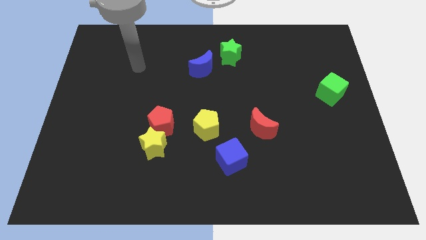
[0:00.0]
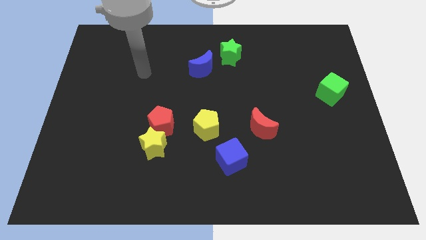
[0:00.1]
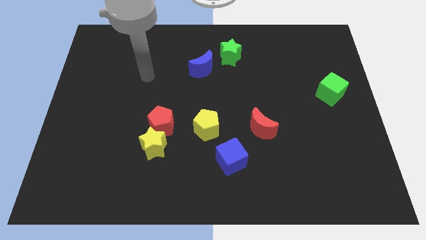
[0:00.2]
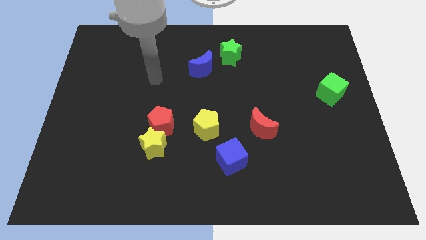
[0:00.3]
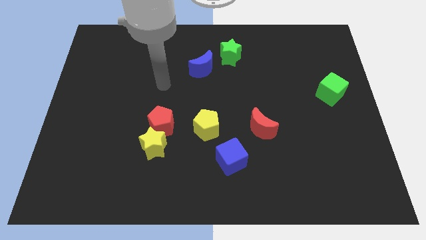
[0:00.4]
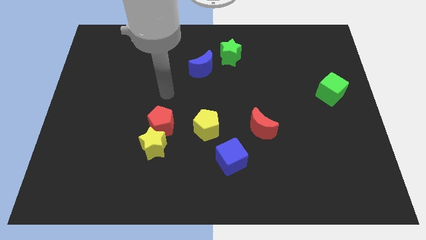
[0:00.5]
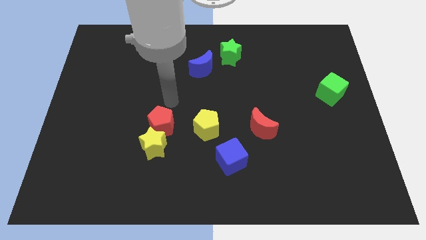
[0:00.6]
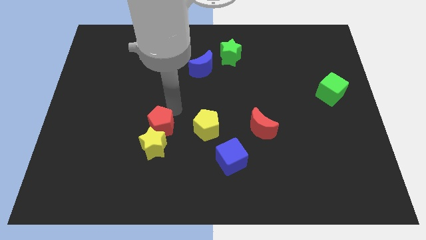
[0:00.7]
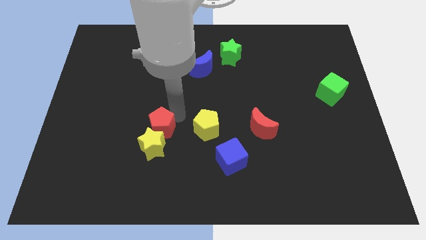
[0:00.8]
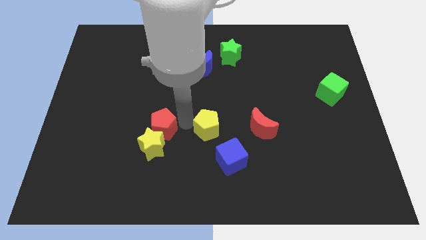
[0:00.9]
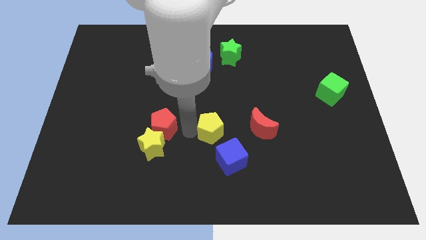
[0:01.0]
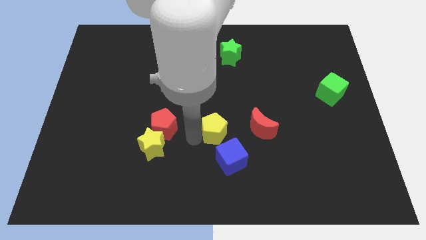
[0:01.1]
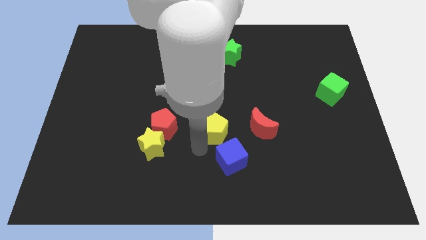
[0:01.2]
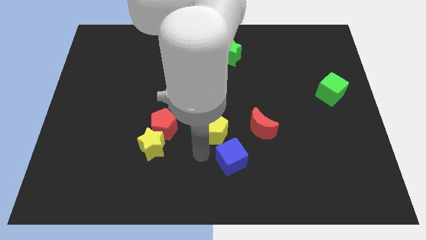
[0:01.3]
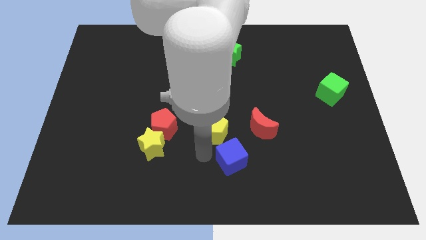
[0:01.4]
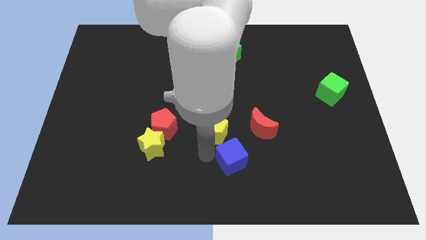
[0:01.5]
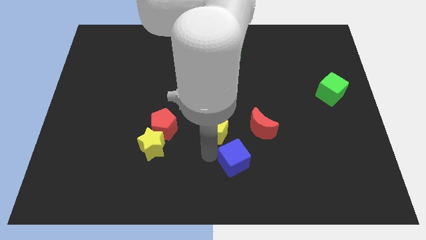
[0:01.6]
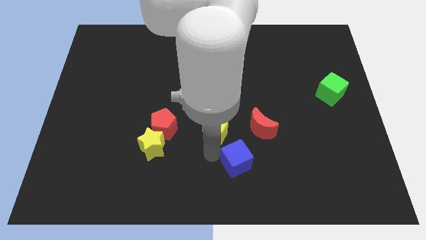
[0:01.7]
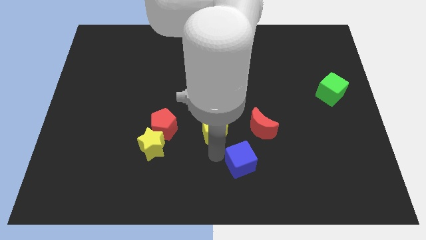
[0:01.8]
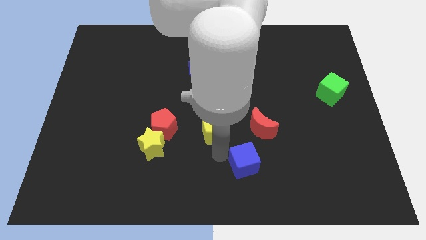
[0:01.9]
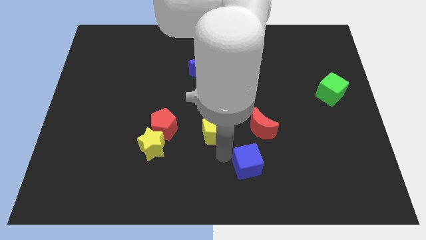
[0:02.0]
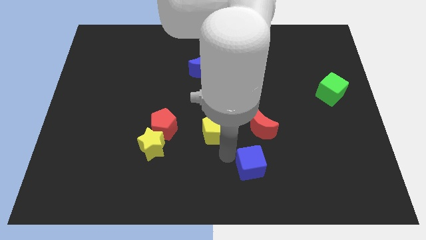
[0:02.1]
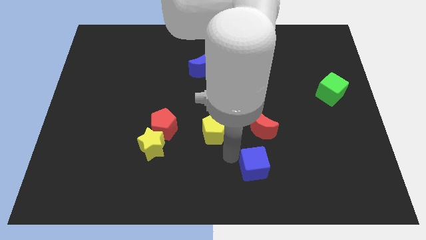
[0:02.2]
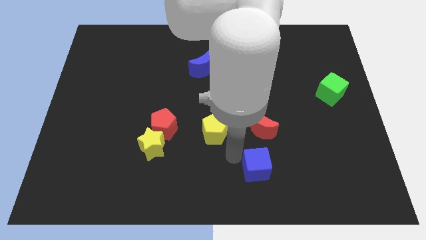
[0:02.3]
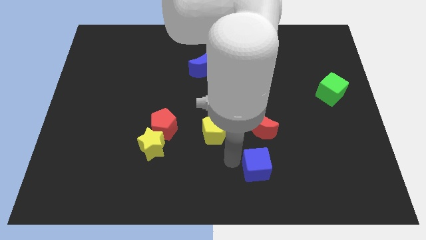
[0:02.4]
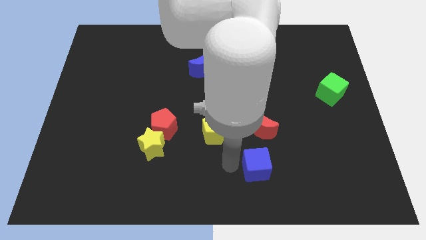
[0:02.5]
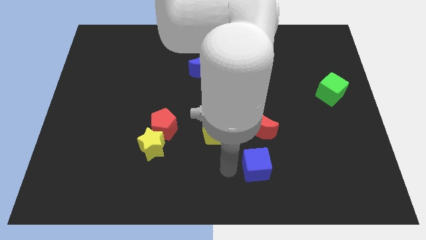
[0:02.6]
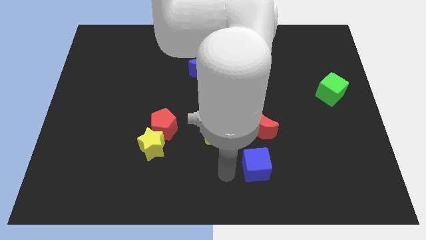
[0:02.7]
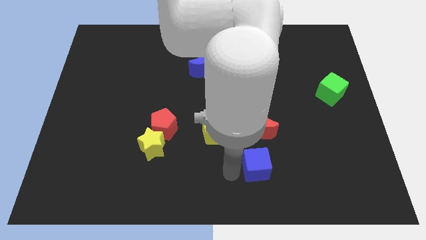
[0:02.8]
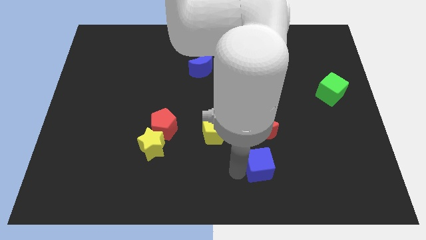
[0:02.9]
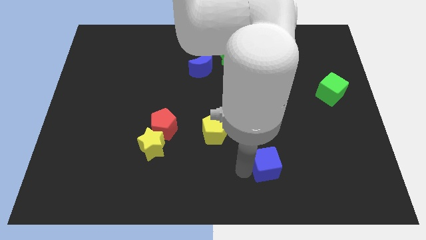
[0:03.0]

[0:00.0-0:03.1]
slightly move the blue cube right

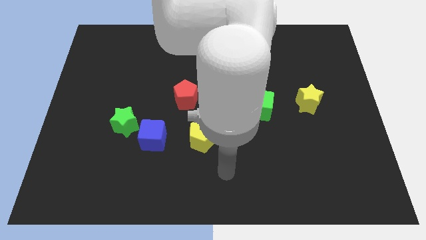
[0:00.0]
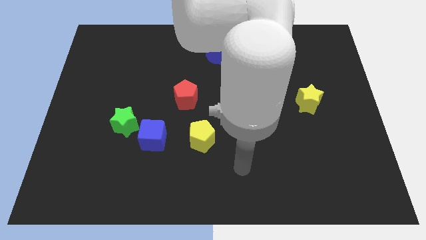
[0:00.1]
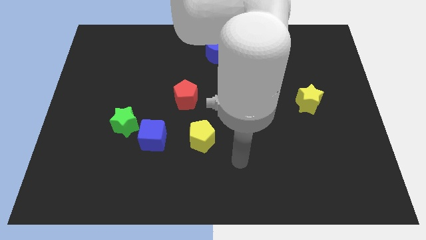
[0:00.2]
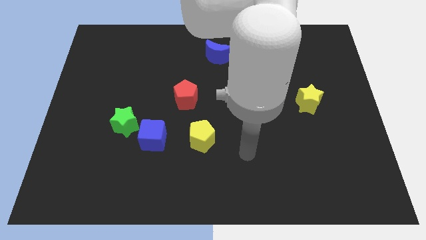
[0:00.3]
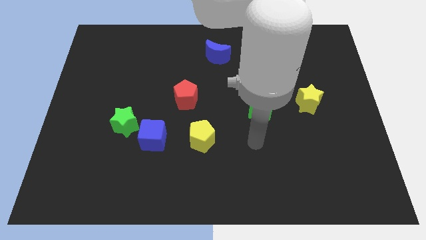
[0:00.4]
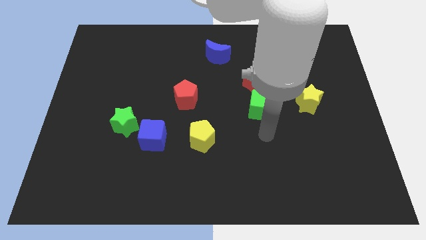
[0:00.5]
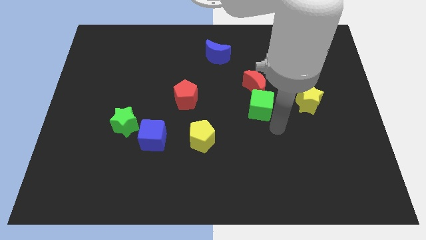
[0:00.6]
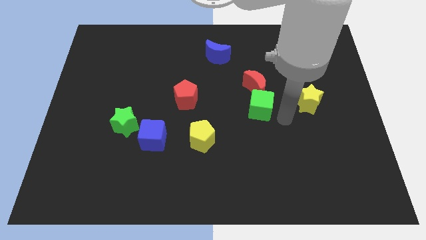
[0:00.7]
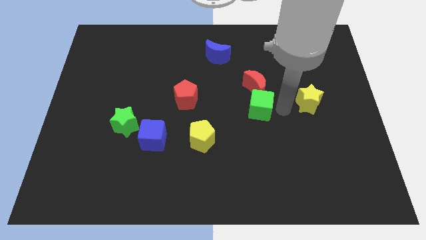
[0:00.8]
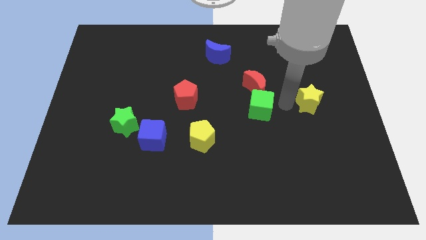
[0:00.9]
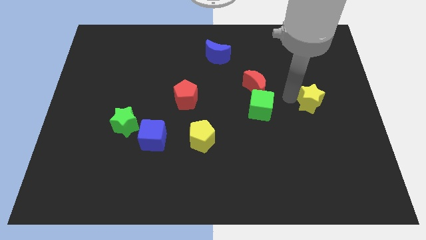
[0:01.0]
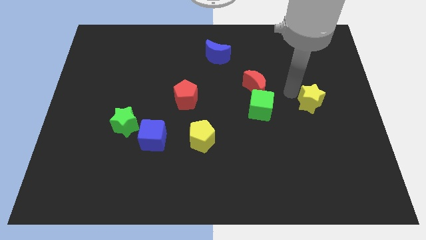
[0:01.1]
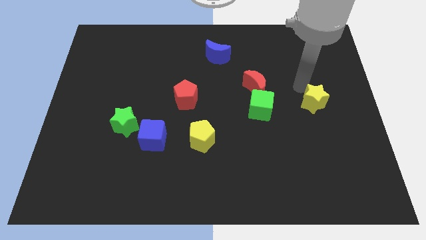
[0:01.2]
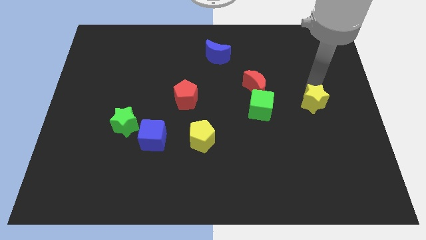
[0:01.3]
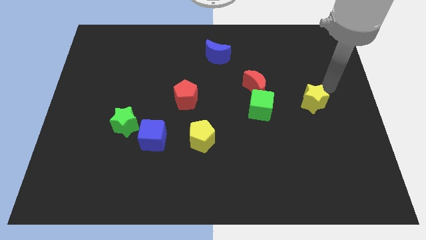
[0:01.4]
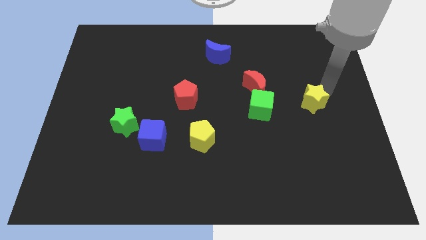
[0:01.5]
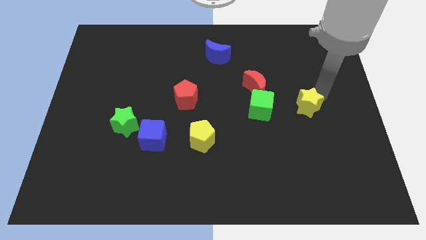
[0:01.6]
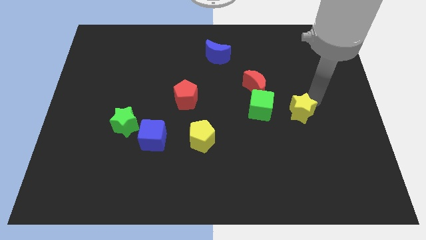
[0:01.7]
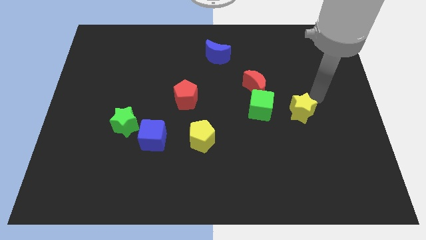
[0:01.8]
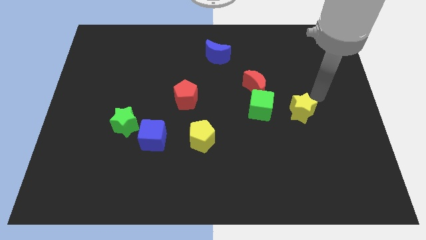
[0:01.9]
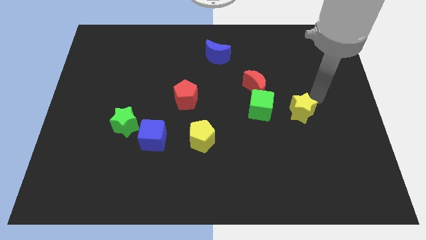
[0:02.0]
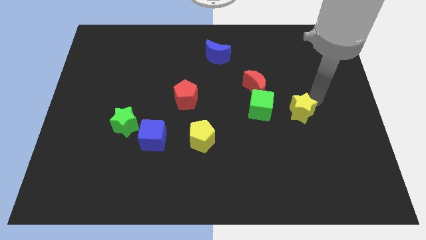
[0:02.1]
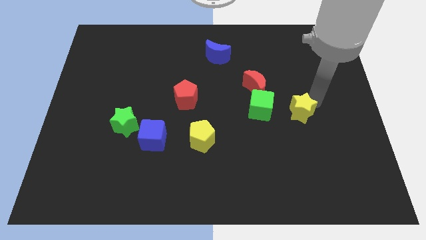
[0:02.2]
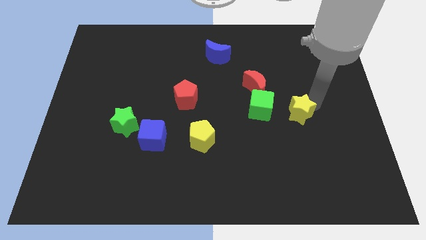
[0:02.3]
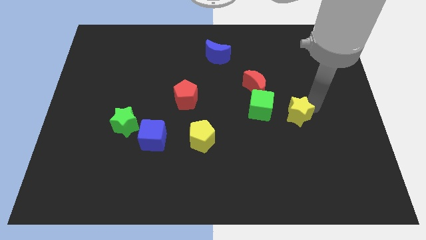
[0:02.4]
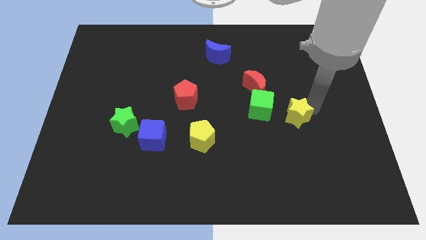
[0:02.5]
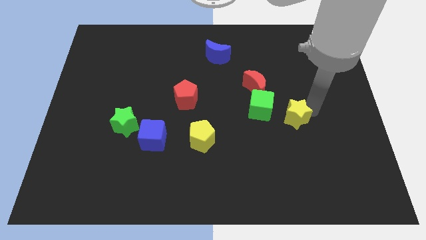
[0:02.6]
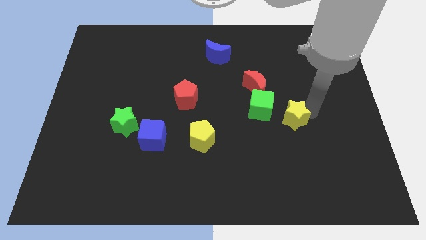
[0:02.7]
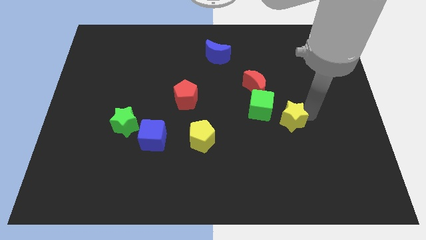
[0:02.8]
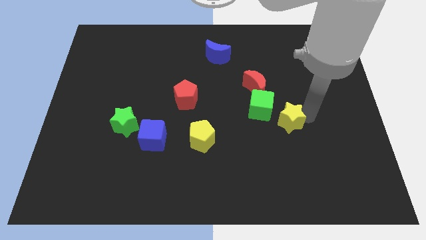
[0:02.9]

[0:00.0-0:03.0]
push the yellow star somewhat down and left

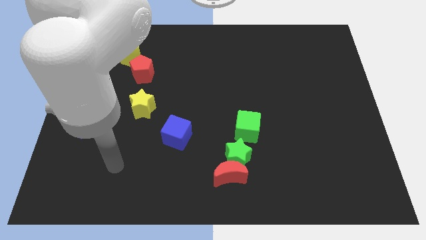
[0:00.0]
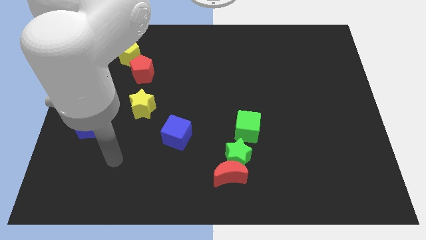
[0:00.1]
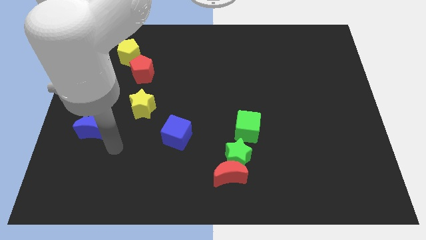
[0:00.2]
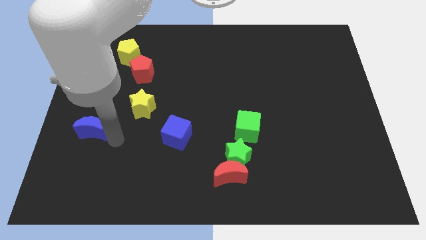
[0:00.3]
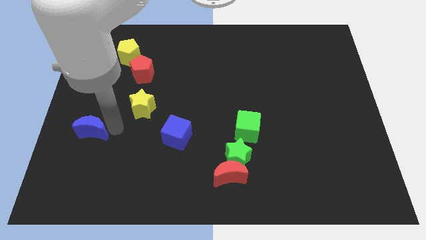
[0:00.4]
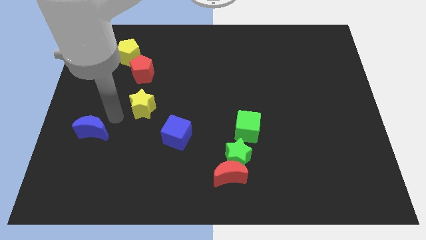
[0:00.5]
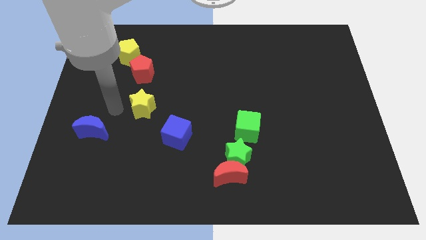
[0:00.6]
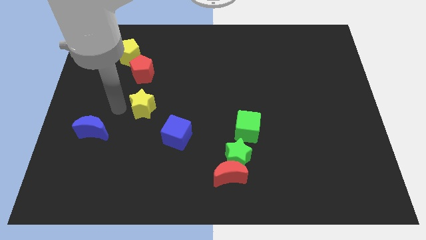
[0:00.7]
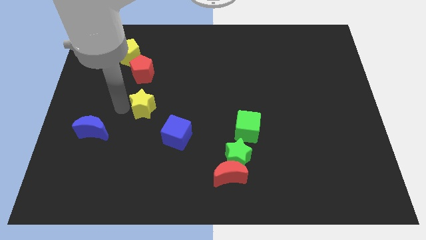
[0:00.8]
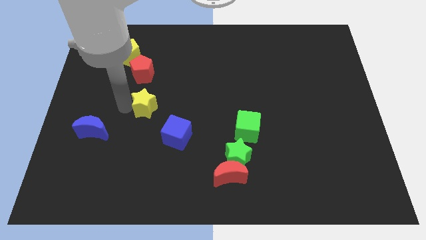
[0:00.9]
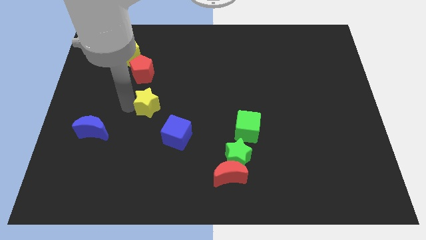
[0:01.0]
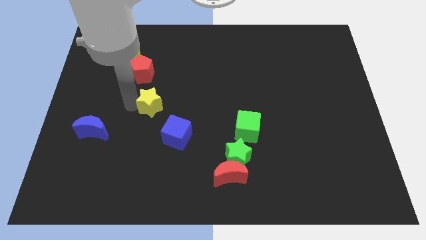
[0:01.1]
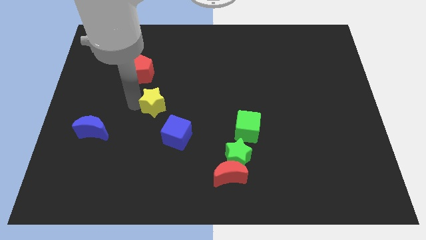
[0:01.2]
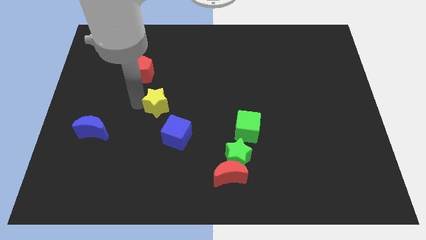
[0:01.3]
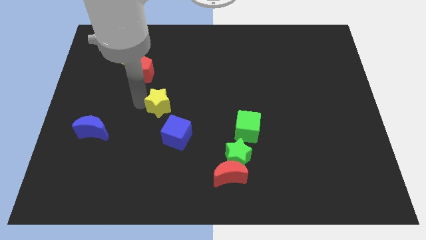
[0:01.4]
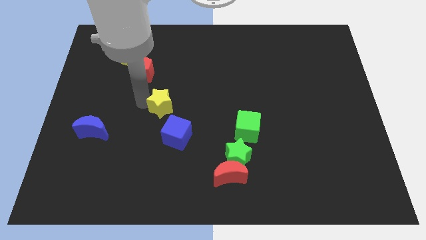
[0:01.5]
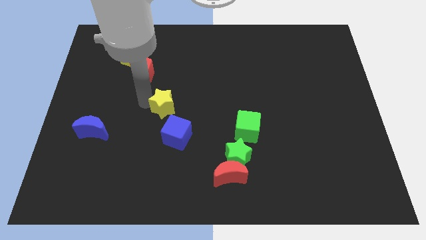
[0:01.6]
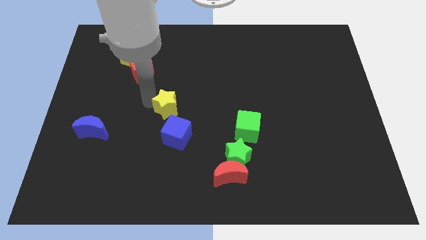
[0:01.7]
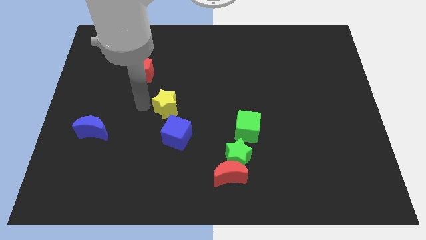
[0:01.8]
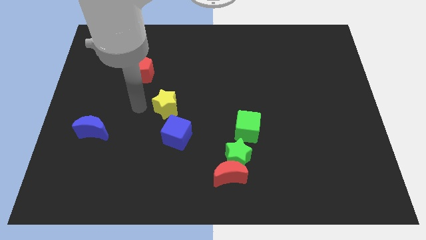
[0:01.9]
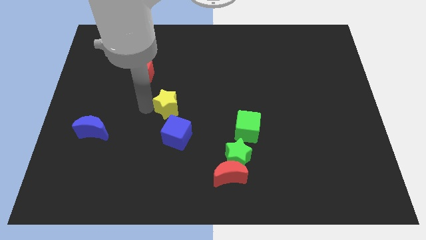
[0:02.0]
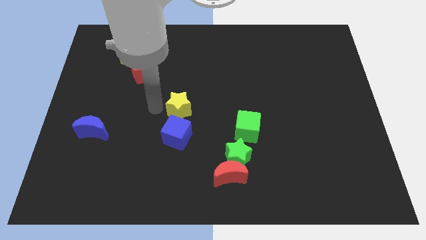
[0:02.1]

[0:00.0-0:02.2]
slightly slide the yellow star right
